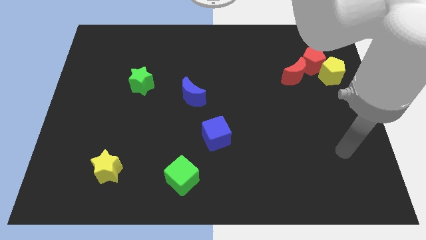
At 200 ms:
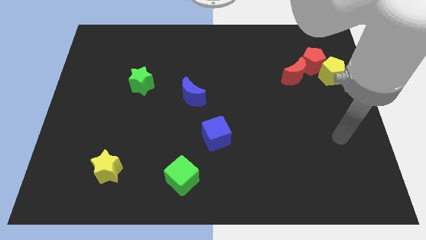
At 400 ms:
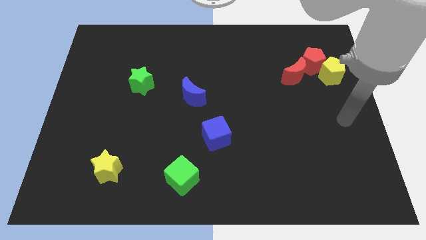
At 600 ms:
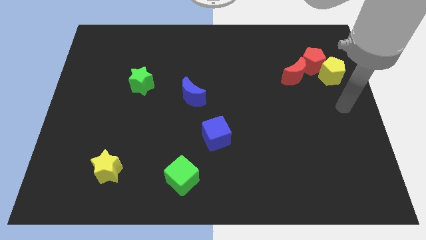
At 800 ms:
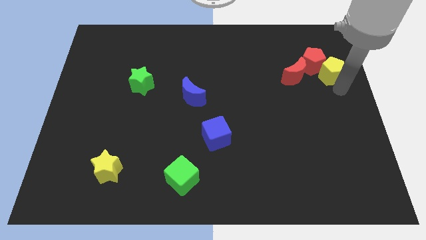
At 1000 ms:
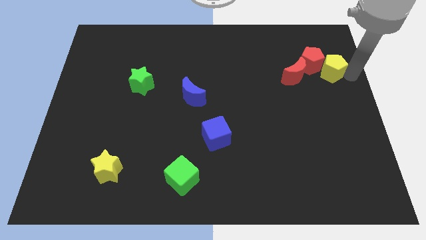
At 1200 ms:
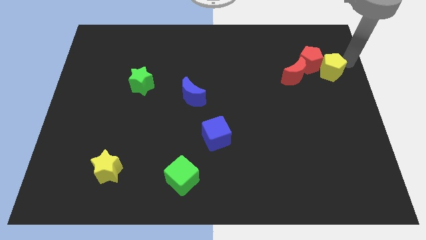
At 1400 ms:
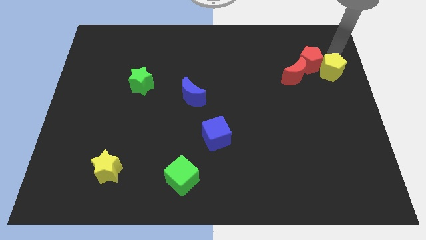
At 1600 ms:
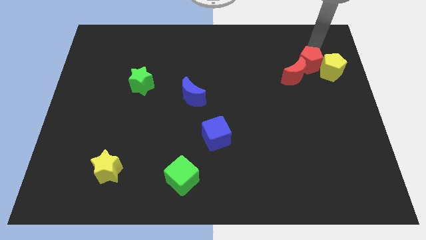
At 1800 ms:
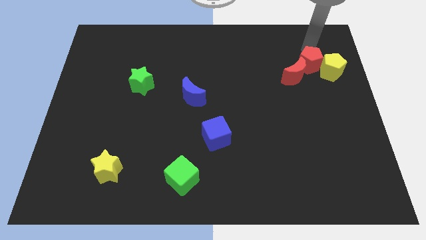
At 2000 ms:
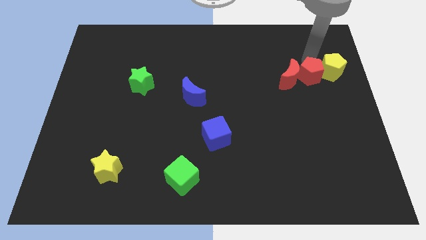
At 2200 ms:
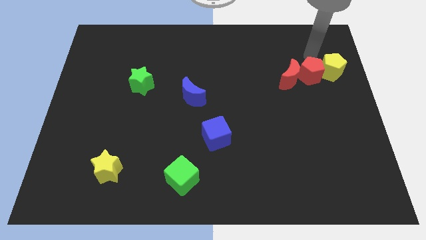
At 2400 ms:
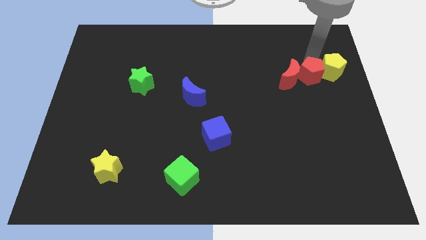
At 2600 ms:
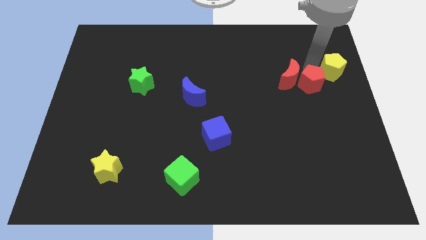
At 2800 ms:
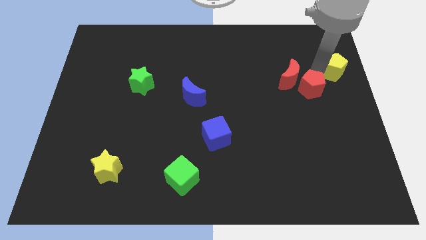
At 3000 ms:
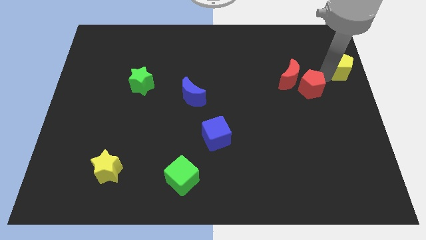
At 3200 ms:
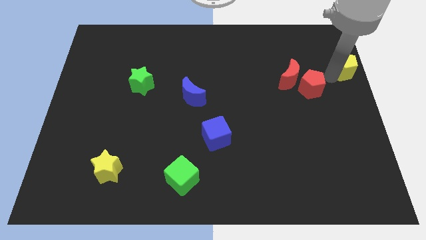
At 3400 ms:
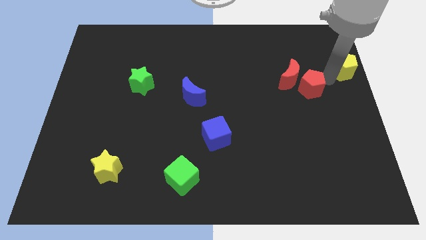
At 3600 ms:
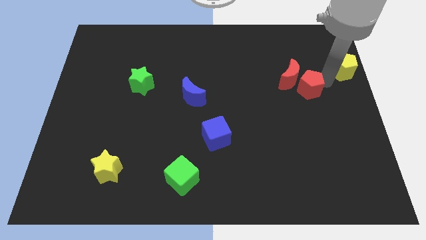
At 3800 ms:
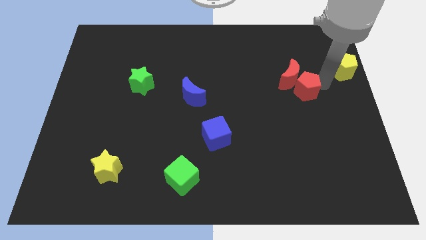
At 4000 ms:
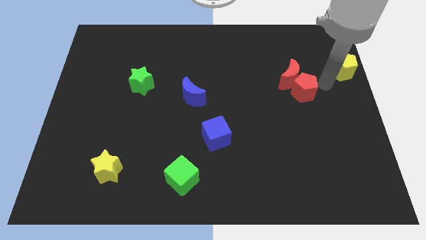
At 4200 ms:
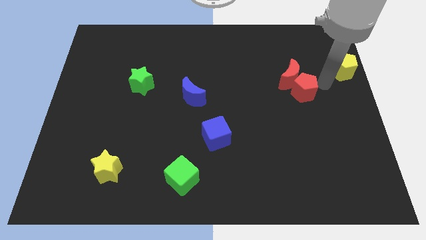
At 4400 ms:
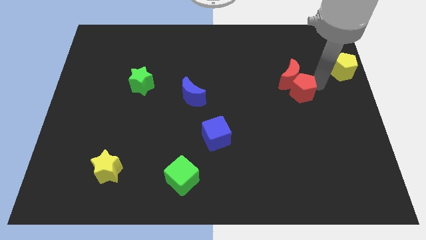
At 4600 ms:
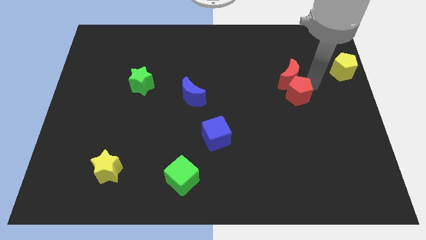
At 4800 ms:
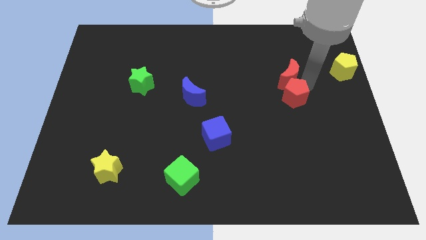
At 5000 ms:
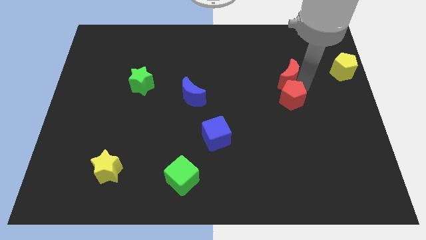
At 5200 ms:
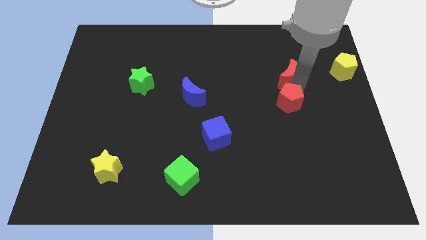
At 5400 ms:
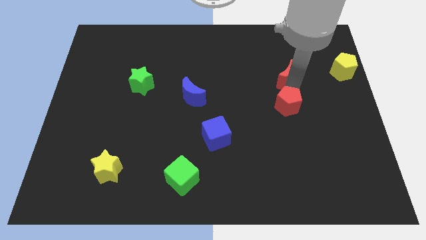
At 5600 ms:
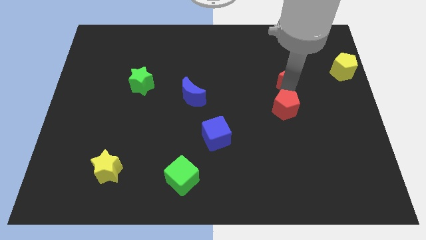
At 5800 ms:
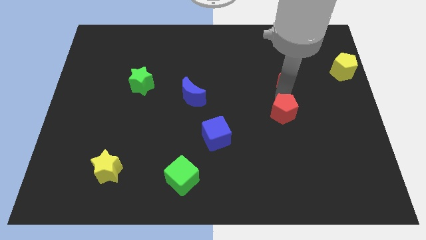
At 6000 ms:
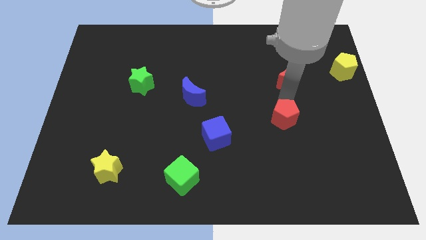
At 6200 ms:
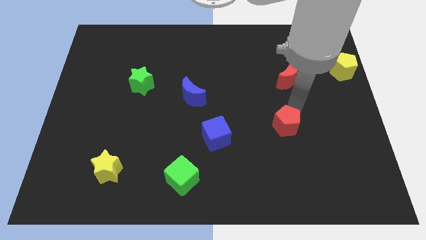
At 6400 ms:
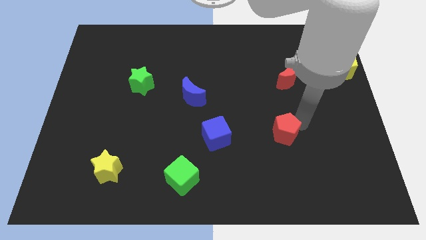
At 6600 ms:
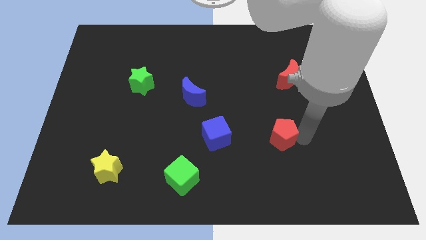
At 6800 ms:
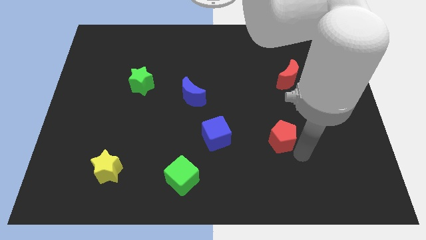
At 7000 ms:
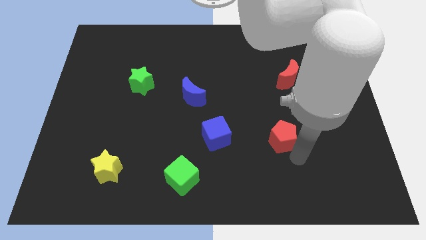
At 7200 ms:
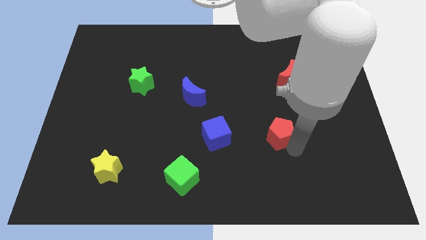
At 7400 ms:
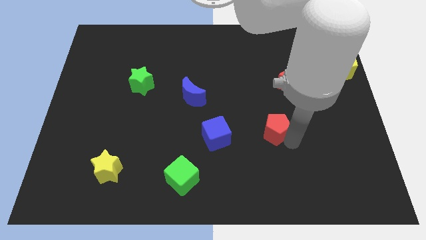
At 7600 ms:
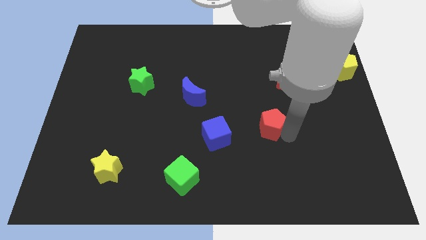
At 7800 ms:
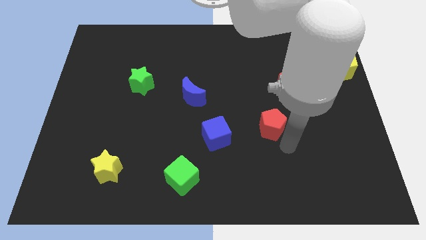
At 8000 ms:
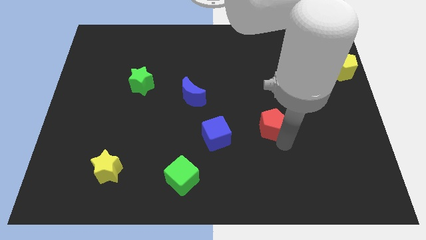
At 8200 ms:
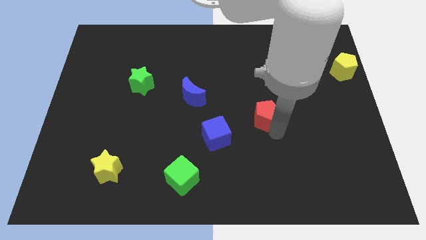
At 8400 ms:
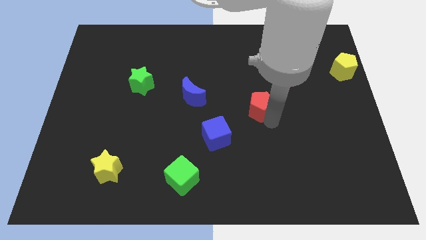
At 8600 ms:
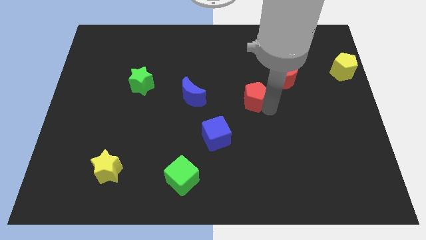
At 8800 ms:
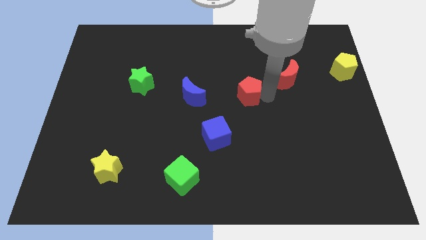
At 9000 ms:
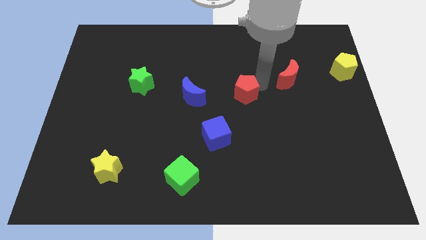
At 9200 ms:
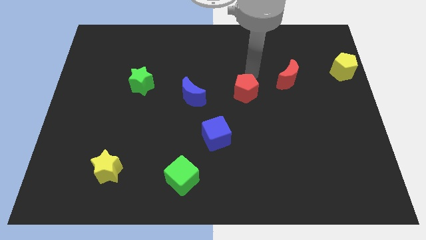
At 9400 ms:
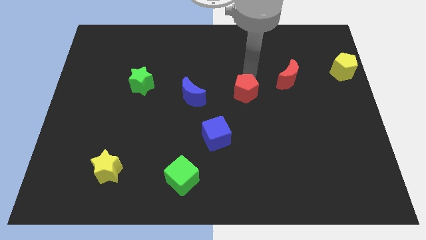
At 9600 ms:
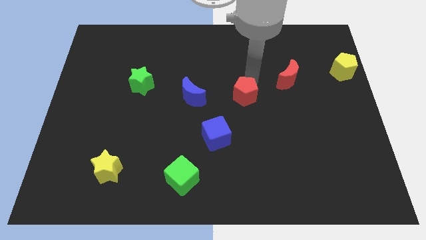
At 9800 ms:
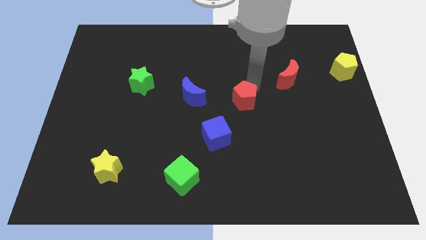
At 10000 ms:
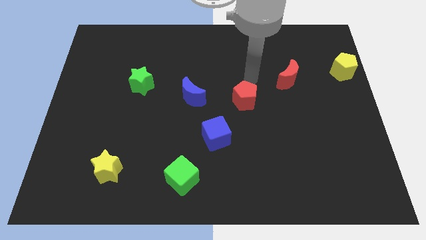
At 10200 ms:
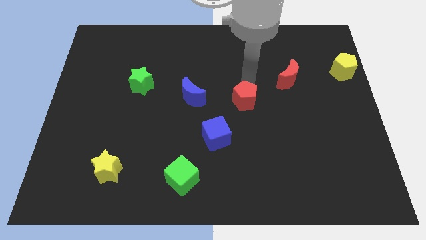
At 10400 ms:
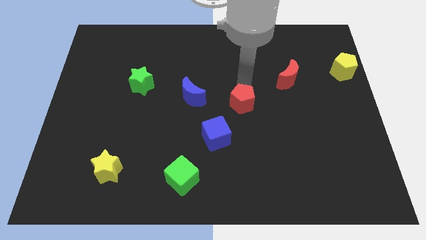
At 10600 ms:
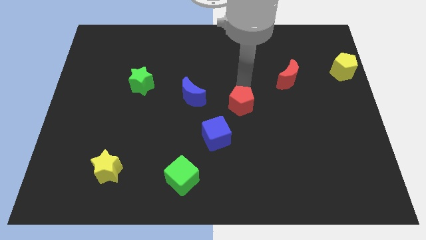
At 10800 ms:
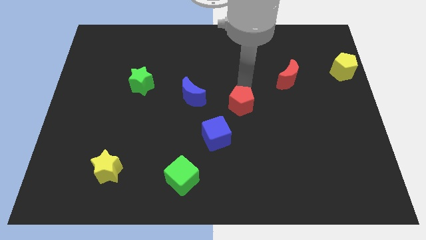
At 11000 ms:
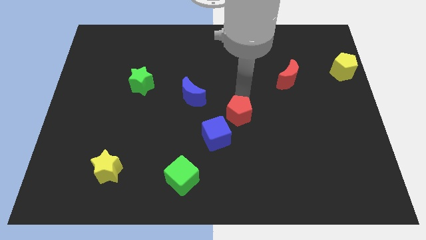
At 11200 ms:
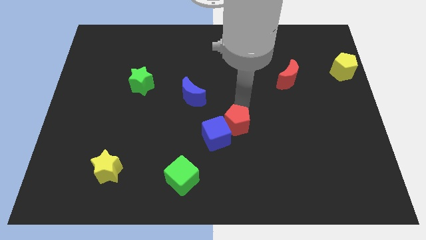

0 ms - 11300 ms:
slide the red pentagon to the blue cube

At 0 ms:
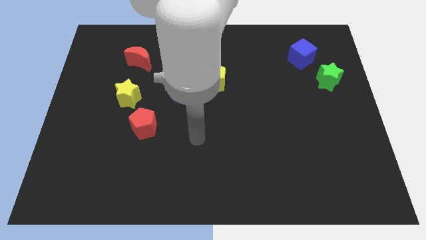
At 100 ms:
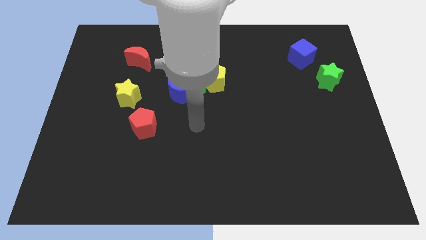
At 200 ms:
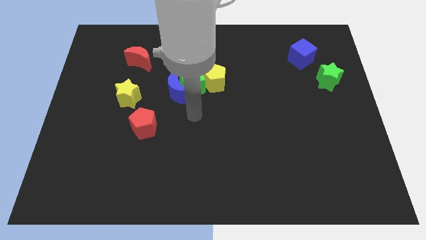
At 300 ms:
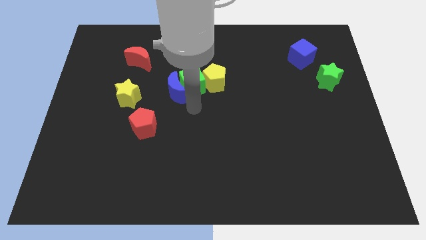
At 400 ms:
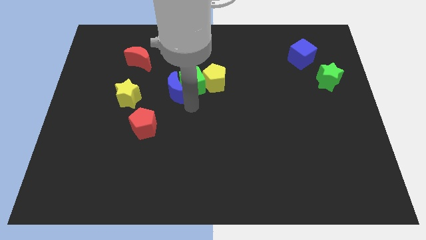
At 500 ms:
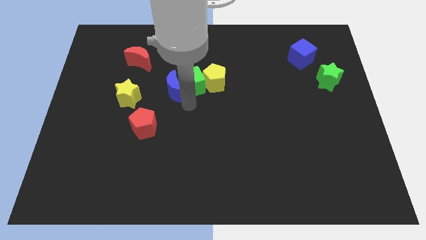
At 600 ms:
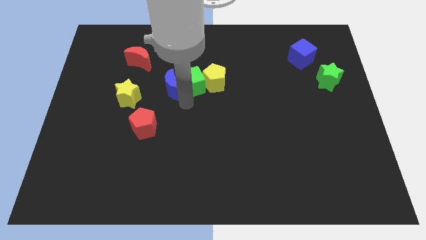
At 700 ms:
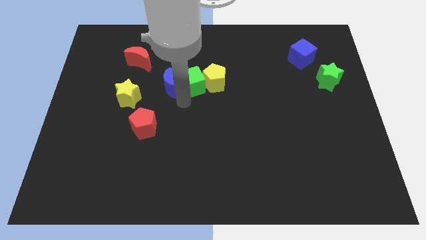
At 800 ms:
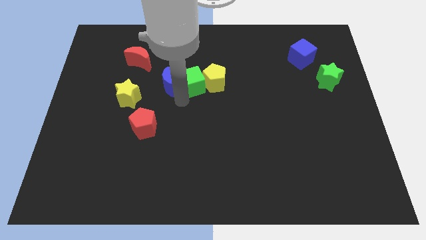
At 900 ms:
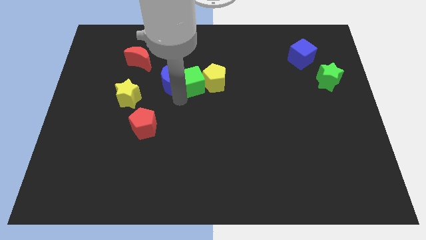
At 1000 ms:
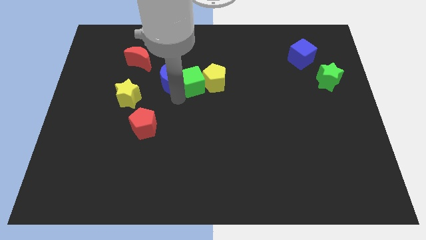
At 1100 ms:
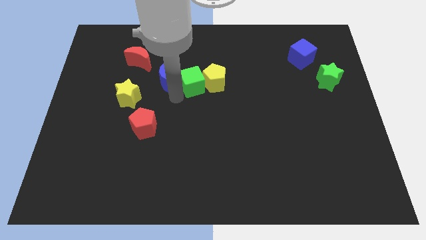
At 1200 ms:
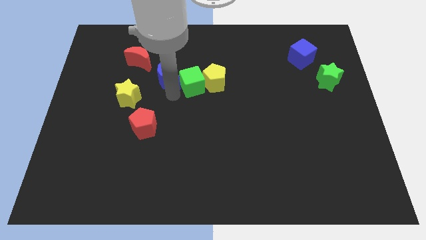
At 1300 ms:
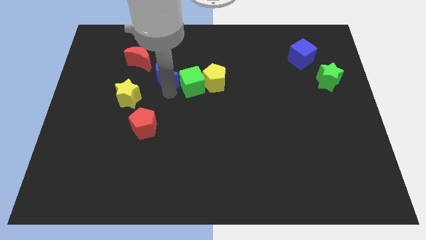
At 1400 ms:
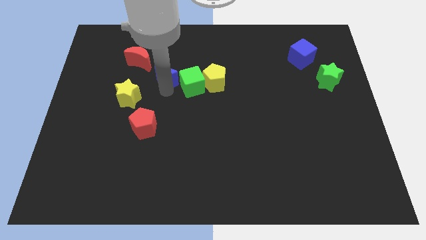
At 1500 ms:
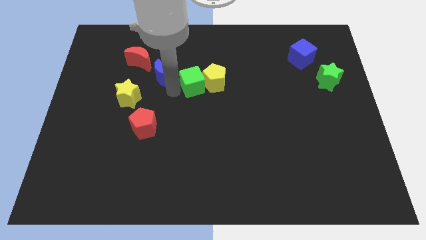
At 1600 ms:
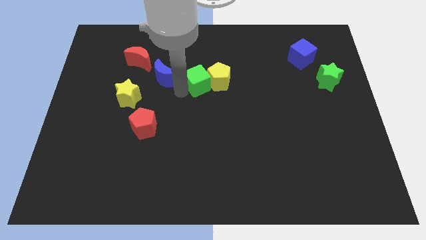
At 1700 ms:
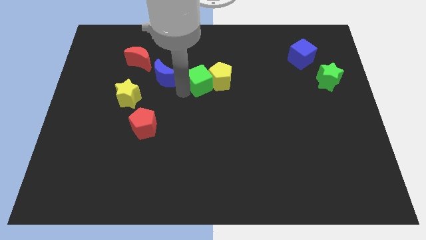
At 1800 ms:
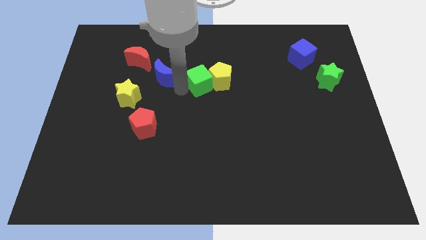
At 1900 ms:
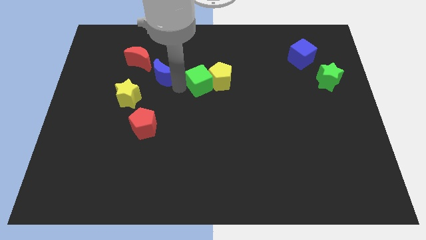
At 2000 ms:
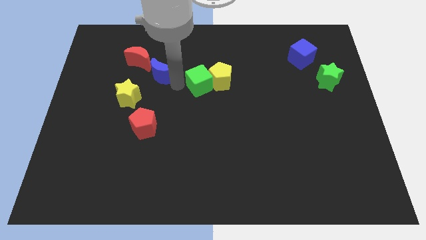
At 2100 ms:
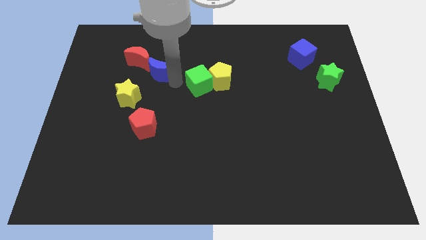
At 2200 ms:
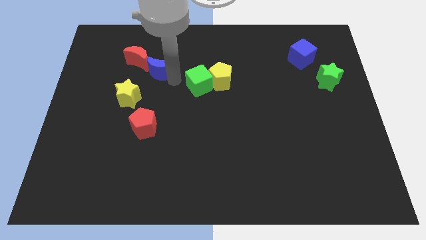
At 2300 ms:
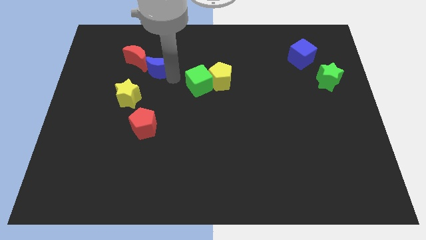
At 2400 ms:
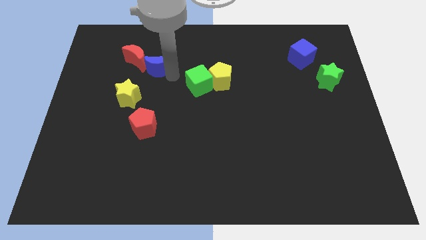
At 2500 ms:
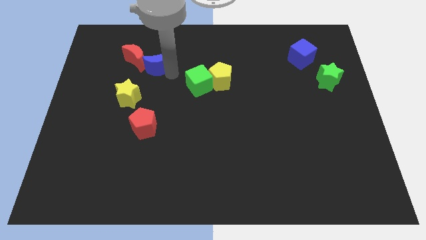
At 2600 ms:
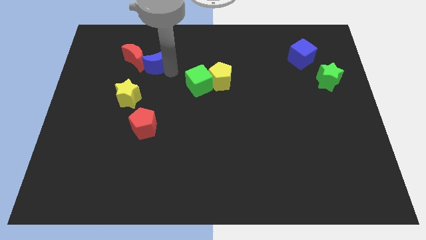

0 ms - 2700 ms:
put the blue moon close to the red moon
